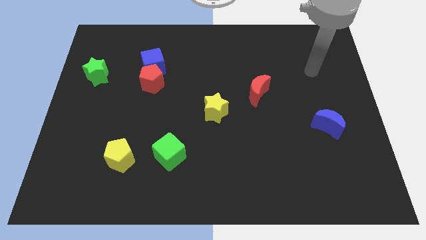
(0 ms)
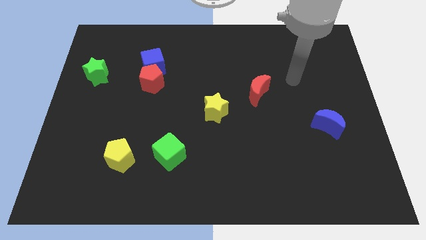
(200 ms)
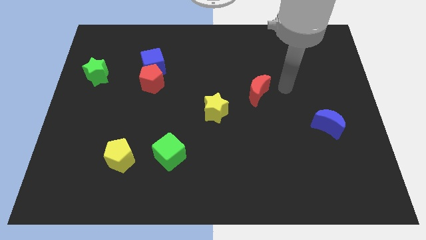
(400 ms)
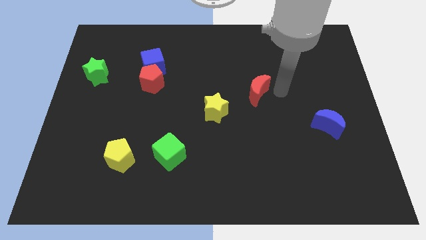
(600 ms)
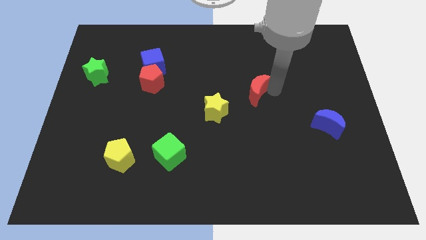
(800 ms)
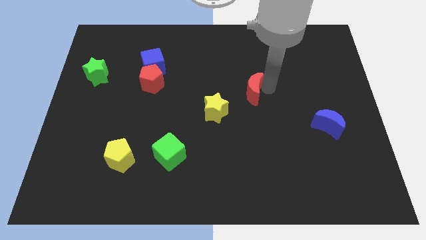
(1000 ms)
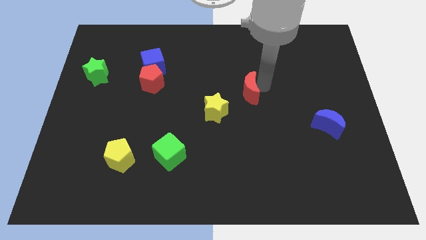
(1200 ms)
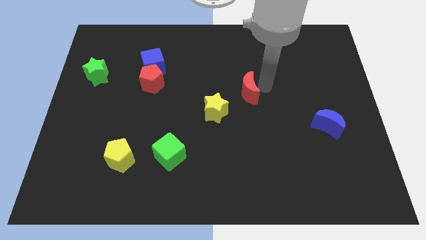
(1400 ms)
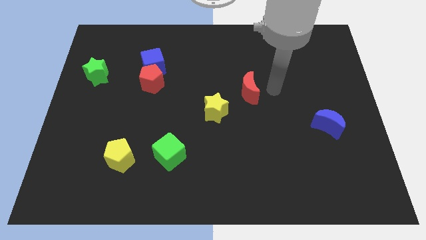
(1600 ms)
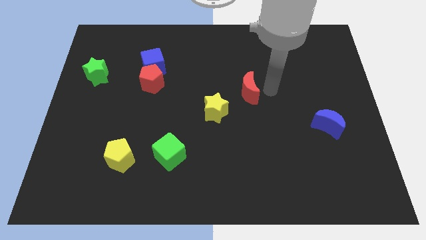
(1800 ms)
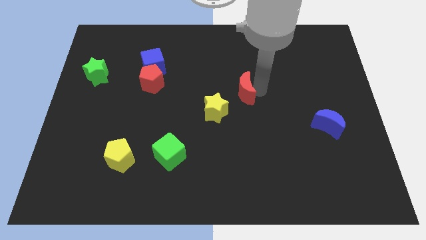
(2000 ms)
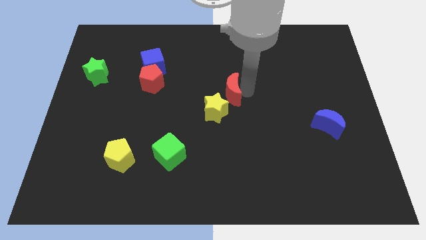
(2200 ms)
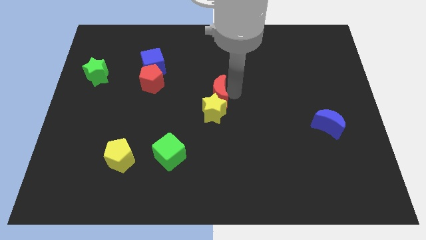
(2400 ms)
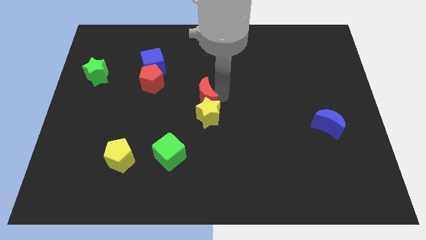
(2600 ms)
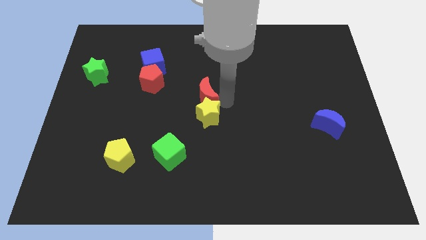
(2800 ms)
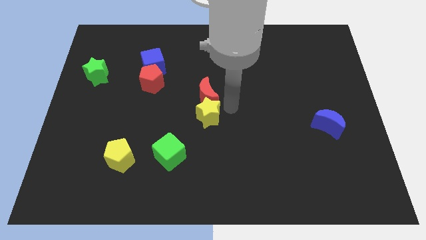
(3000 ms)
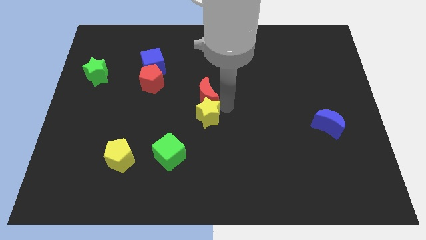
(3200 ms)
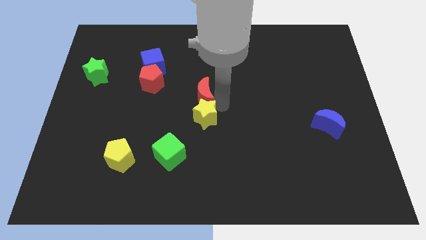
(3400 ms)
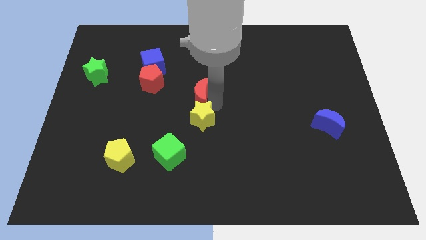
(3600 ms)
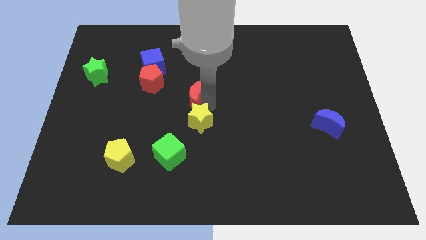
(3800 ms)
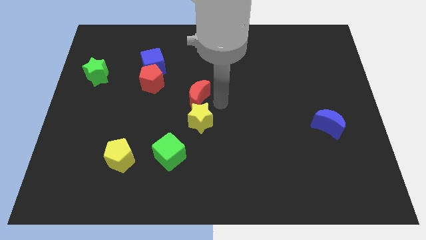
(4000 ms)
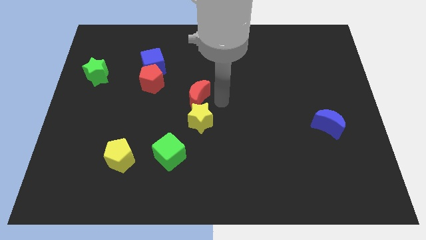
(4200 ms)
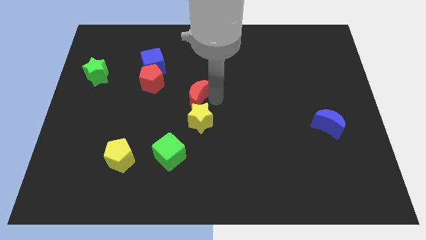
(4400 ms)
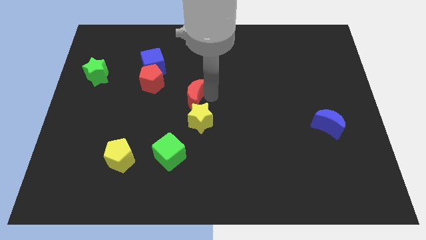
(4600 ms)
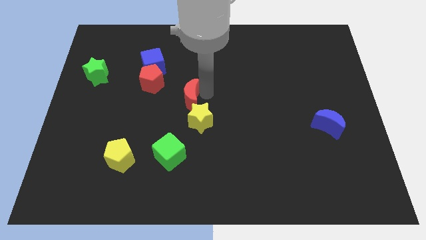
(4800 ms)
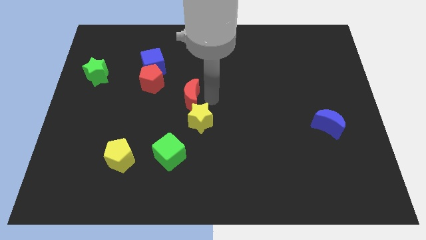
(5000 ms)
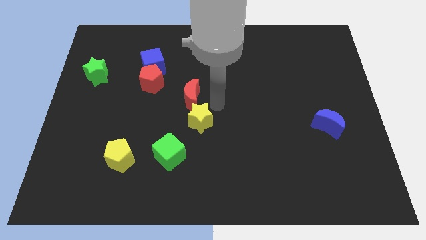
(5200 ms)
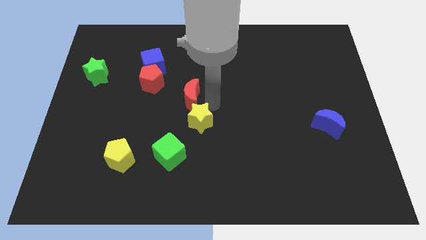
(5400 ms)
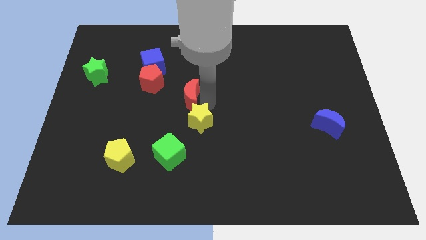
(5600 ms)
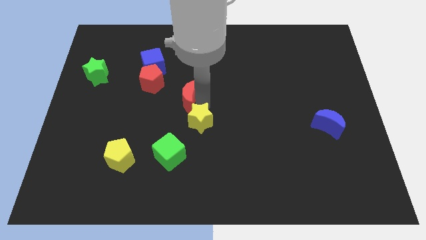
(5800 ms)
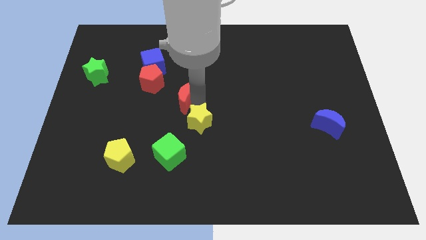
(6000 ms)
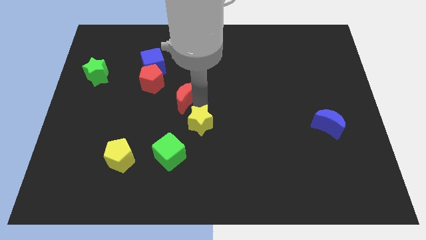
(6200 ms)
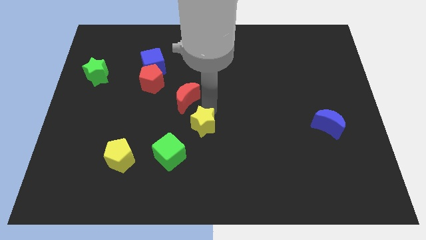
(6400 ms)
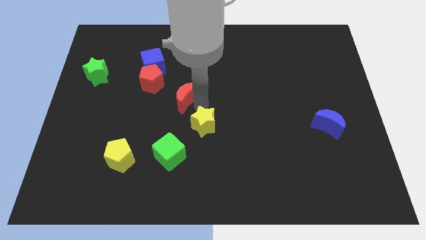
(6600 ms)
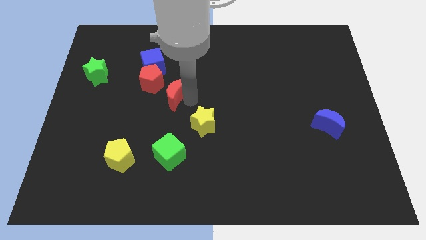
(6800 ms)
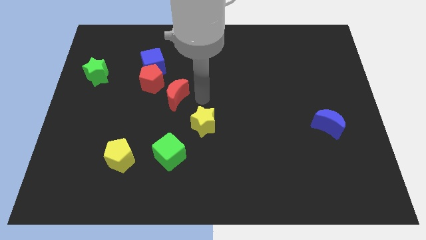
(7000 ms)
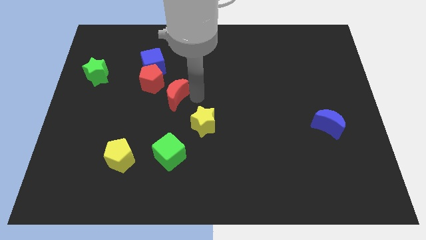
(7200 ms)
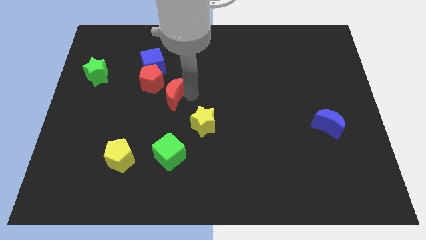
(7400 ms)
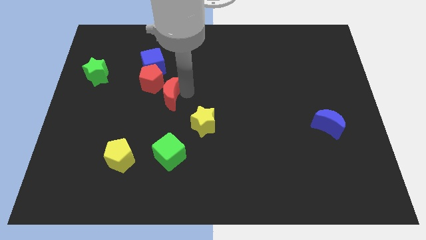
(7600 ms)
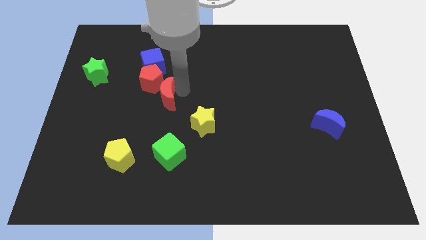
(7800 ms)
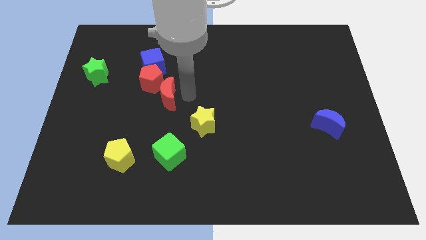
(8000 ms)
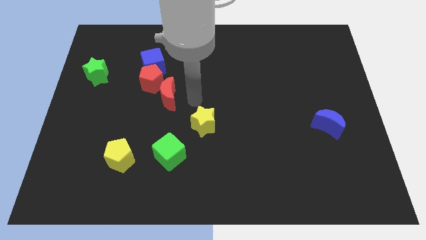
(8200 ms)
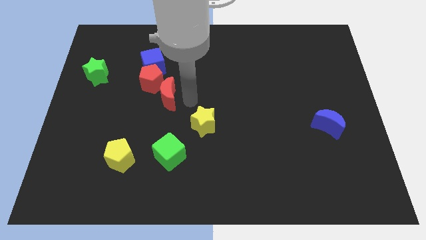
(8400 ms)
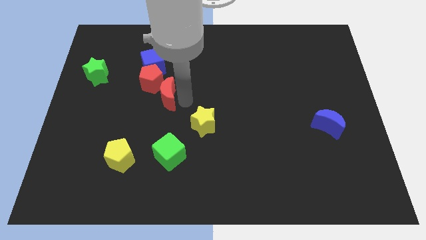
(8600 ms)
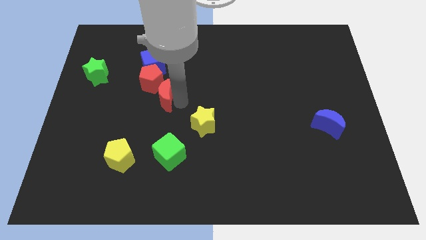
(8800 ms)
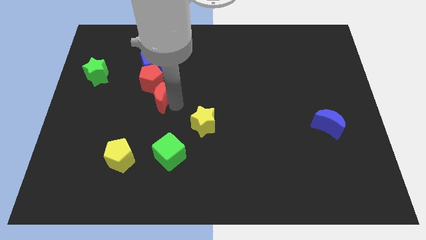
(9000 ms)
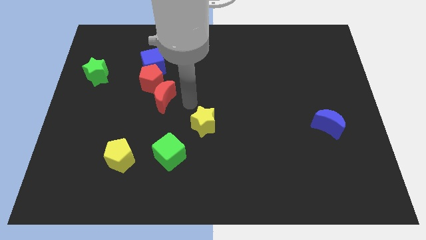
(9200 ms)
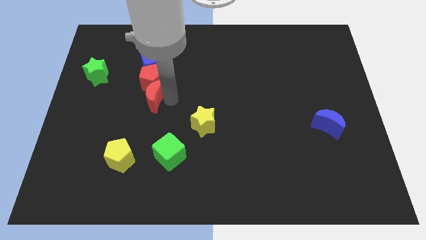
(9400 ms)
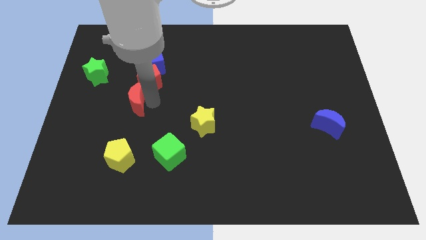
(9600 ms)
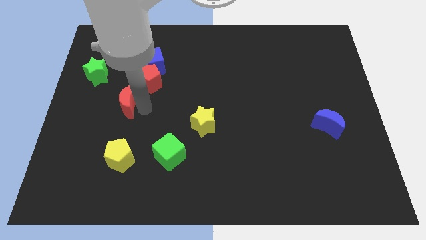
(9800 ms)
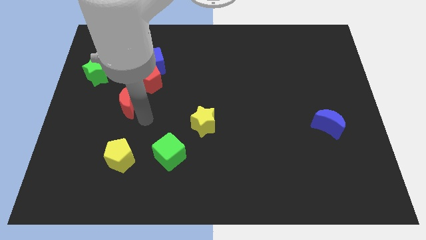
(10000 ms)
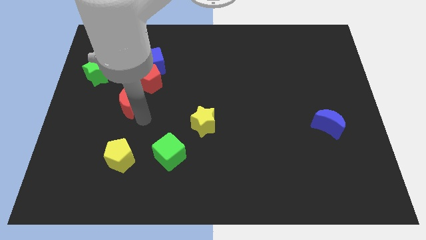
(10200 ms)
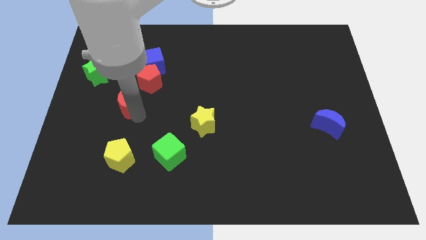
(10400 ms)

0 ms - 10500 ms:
push the red moon diagonally down and to the right of the green star
